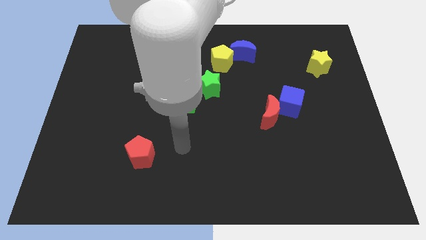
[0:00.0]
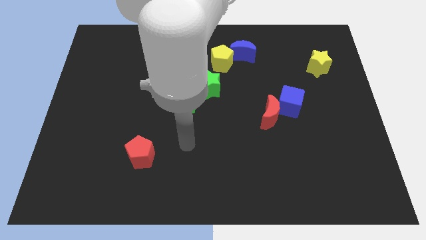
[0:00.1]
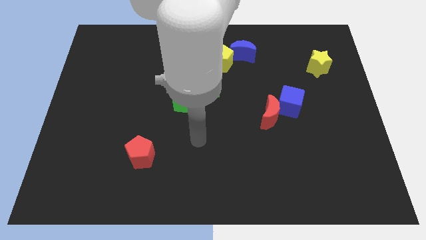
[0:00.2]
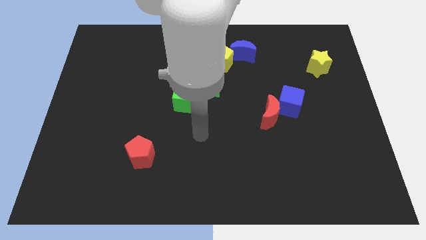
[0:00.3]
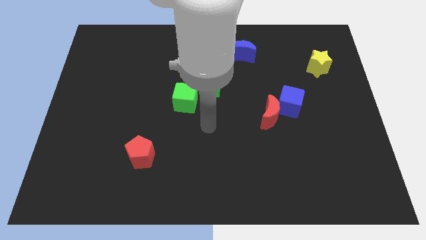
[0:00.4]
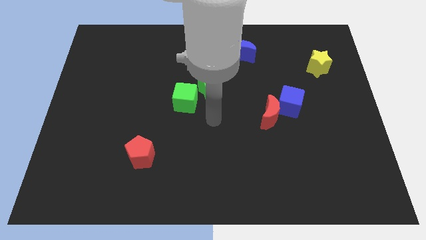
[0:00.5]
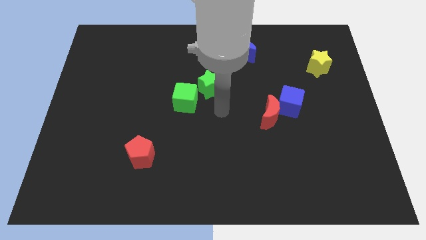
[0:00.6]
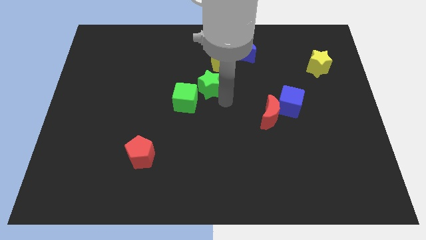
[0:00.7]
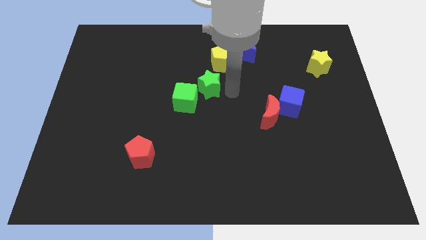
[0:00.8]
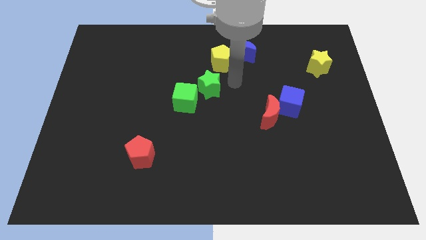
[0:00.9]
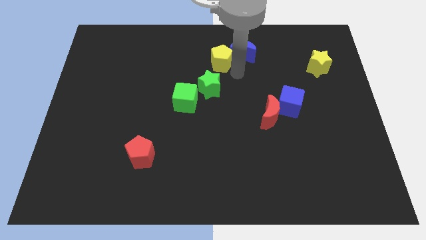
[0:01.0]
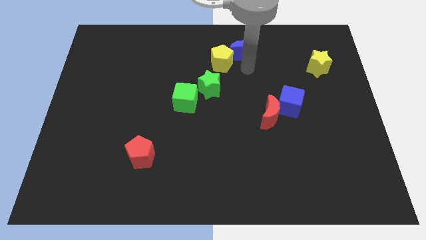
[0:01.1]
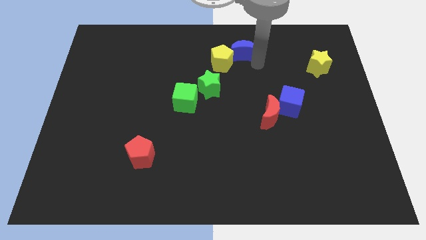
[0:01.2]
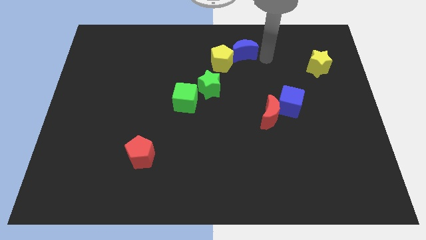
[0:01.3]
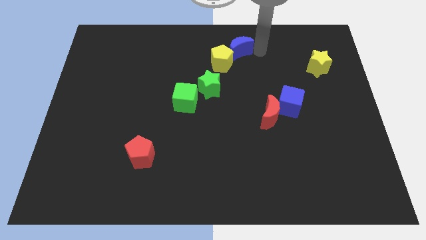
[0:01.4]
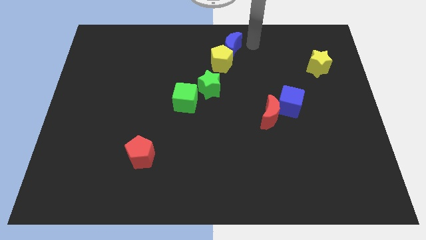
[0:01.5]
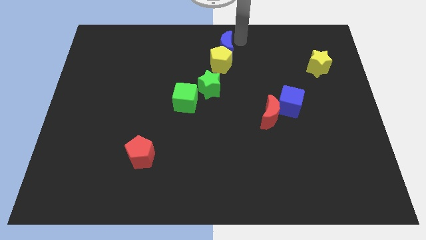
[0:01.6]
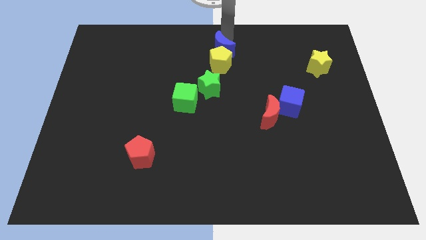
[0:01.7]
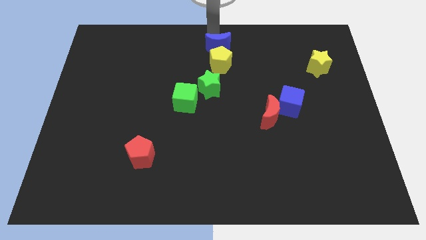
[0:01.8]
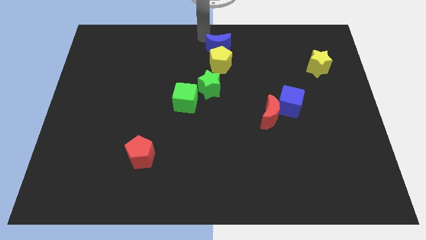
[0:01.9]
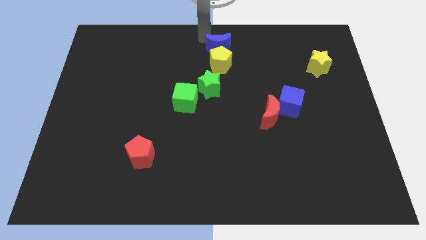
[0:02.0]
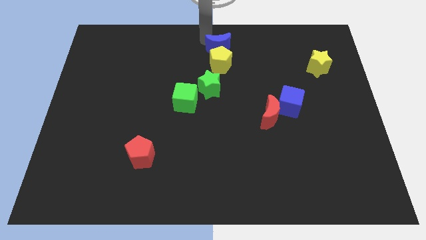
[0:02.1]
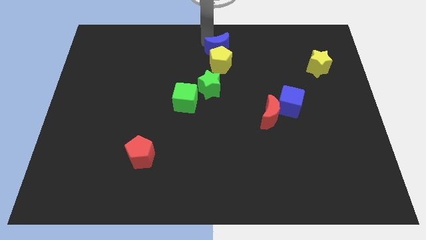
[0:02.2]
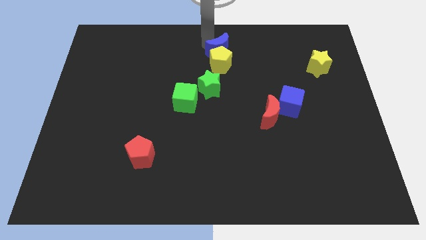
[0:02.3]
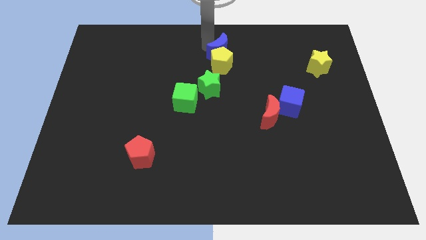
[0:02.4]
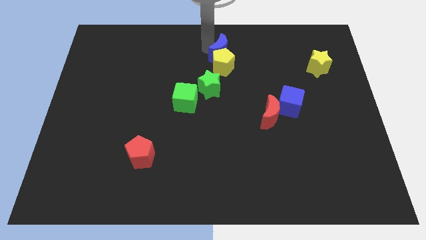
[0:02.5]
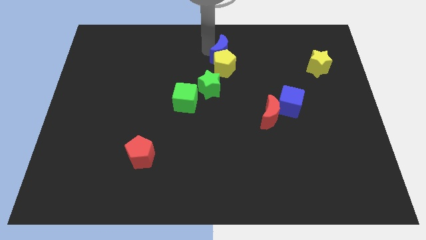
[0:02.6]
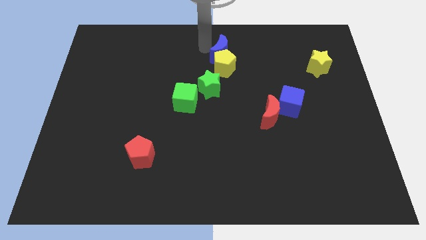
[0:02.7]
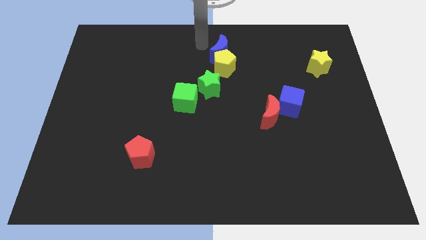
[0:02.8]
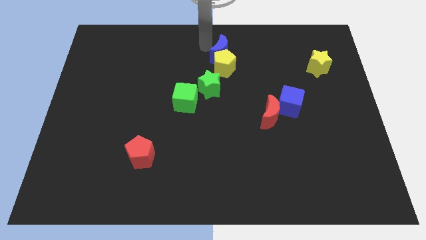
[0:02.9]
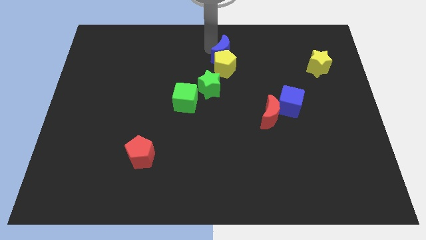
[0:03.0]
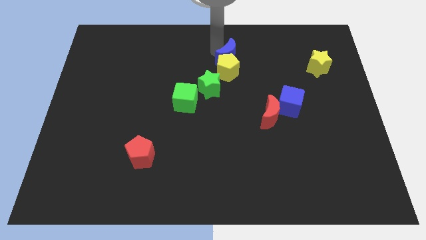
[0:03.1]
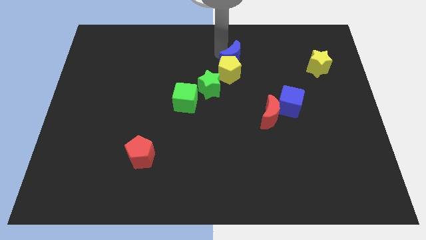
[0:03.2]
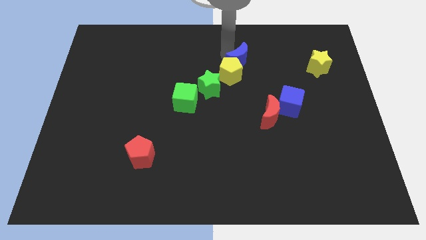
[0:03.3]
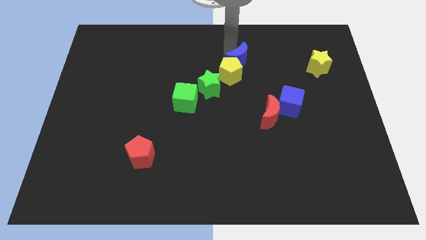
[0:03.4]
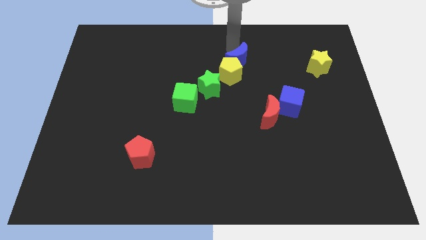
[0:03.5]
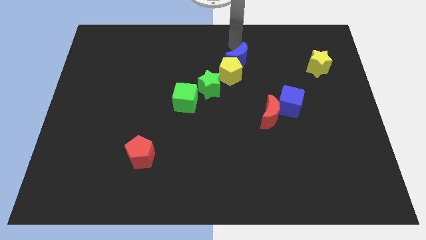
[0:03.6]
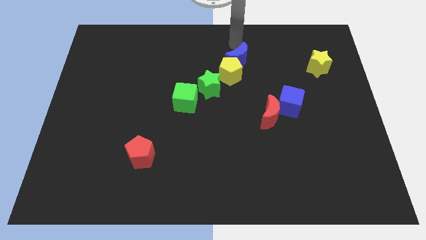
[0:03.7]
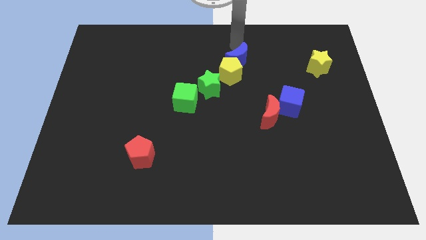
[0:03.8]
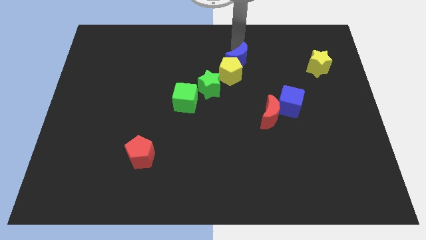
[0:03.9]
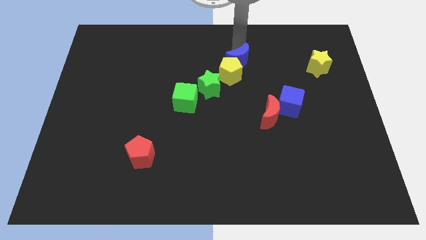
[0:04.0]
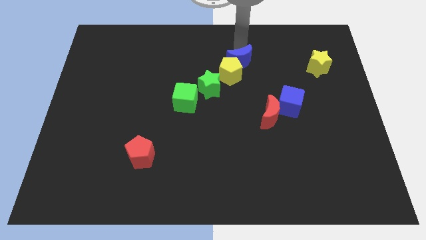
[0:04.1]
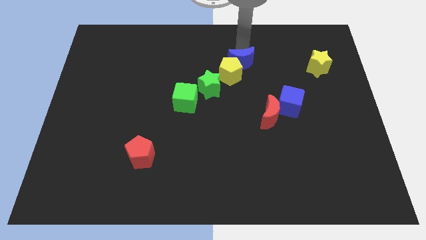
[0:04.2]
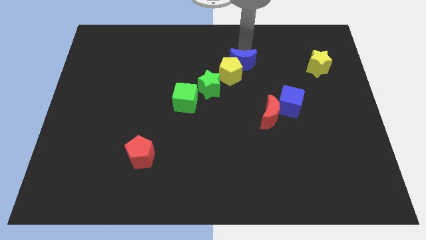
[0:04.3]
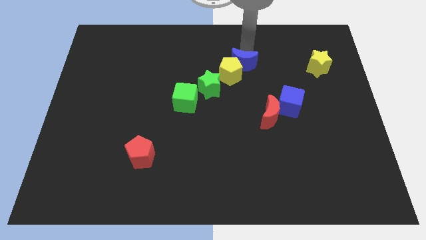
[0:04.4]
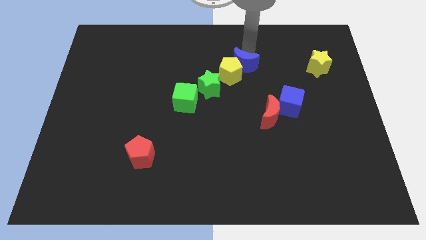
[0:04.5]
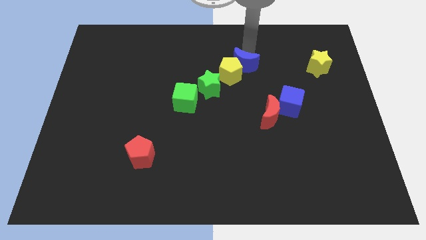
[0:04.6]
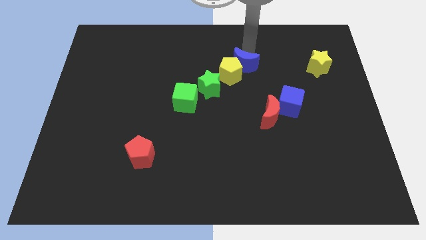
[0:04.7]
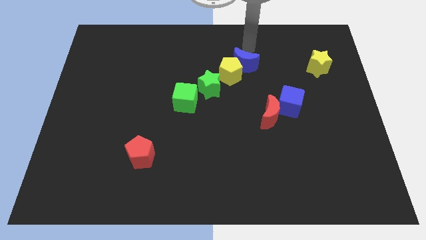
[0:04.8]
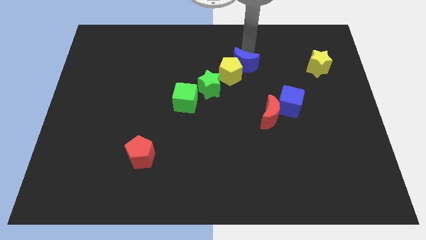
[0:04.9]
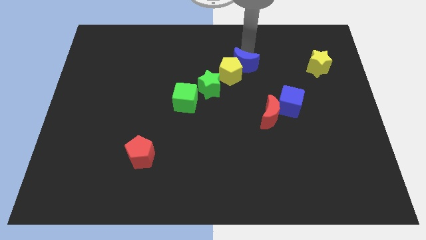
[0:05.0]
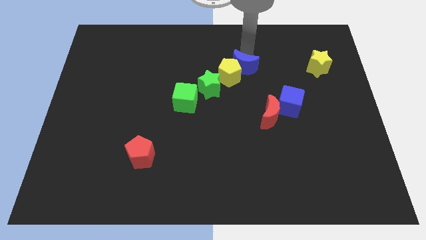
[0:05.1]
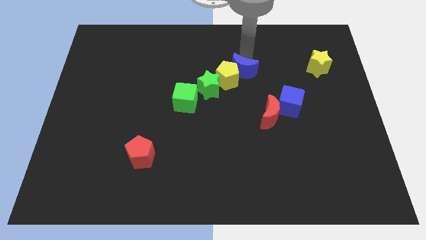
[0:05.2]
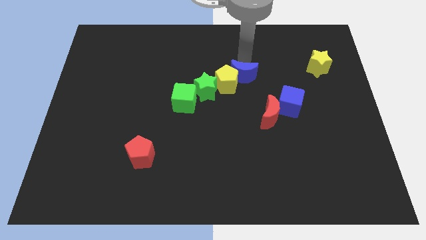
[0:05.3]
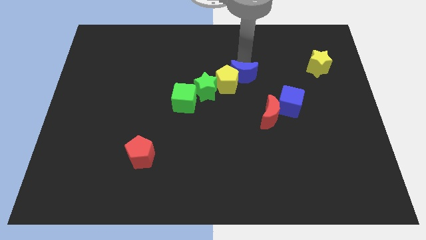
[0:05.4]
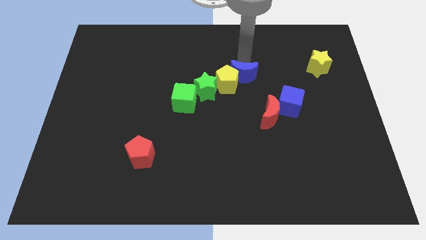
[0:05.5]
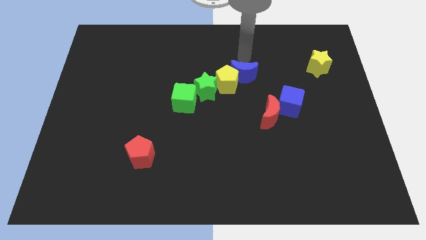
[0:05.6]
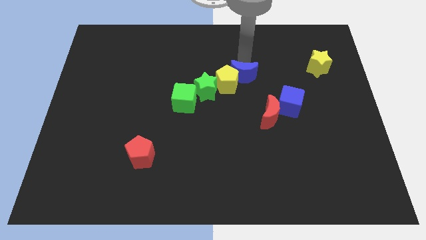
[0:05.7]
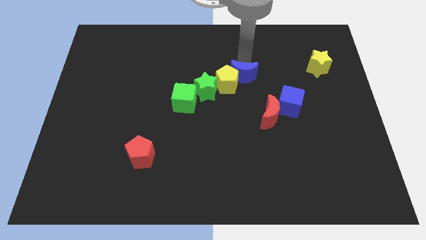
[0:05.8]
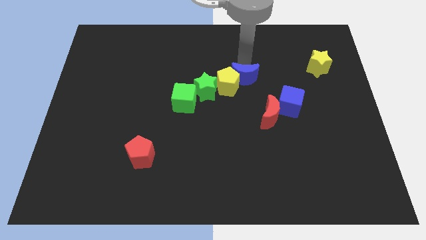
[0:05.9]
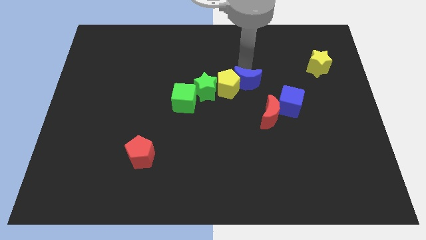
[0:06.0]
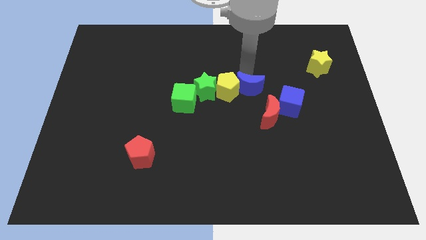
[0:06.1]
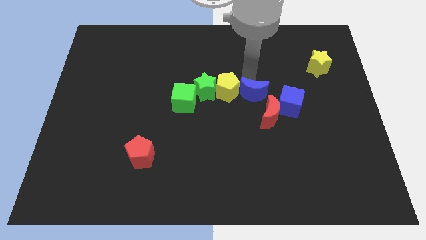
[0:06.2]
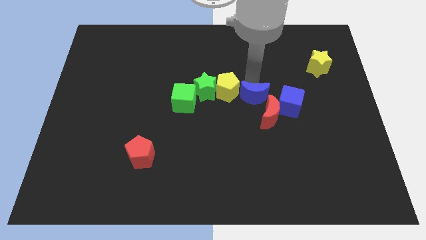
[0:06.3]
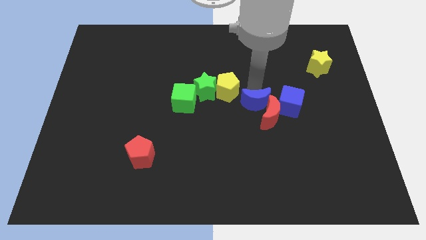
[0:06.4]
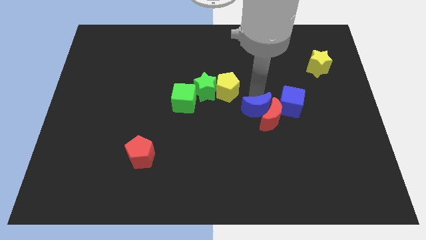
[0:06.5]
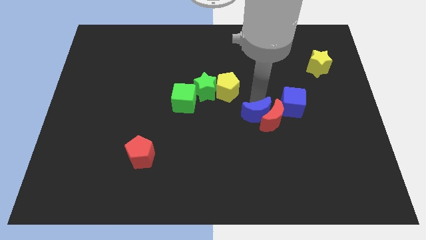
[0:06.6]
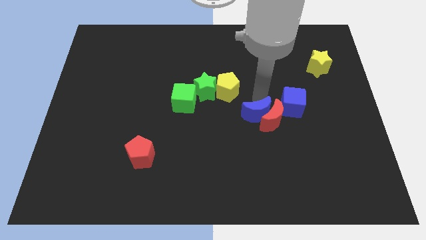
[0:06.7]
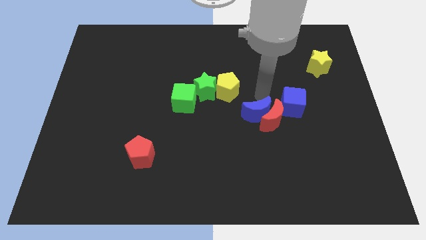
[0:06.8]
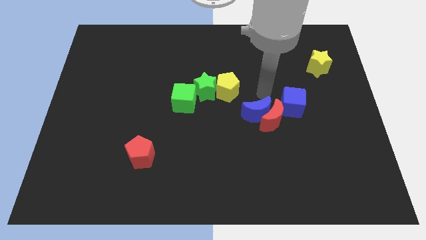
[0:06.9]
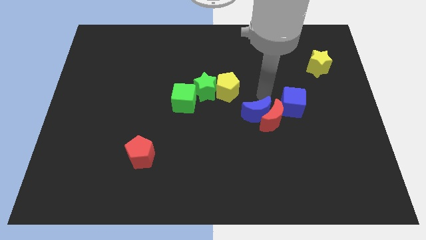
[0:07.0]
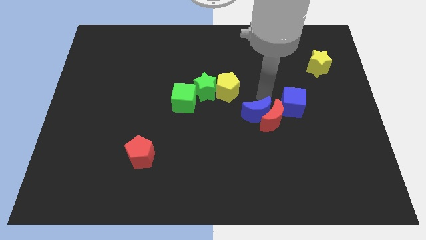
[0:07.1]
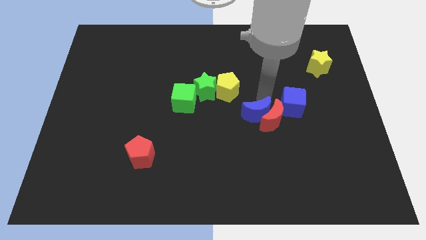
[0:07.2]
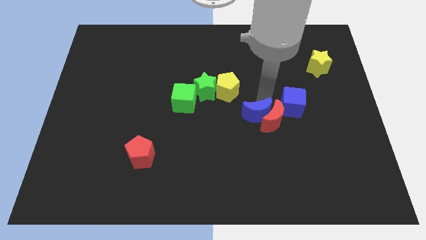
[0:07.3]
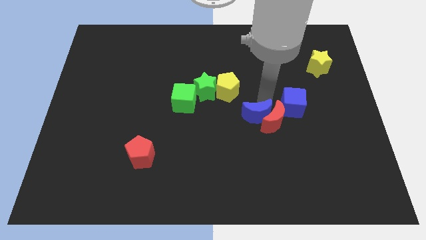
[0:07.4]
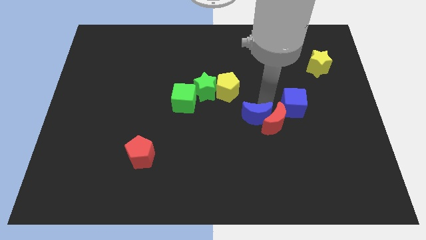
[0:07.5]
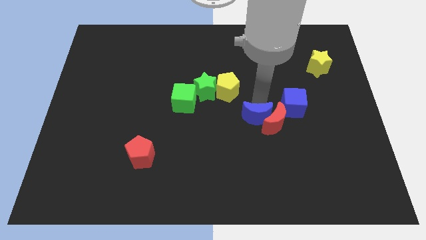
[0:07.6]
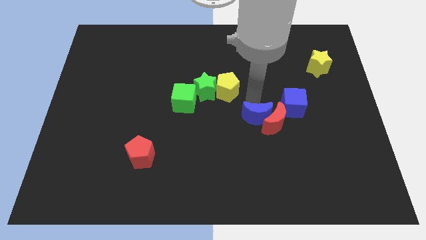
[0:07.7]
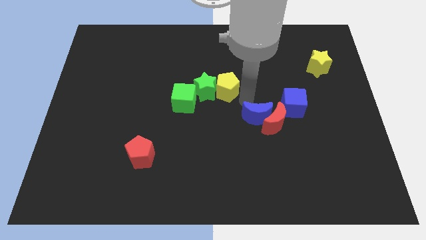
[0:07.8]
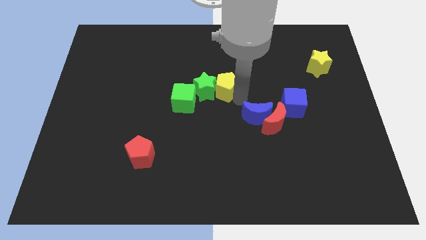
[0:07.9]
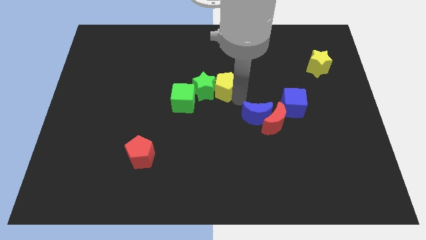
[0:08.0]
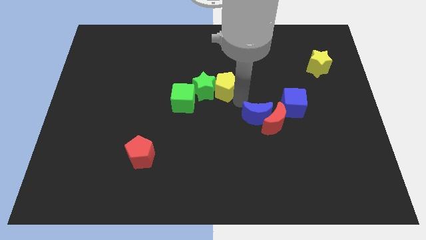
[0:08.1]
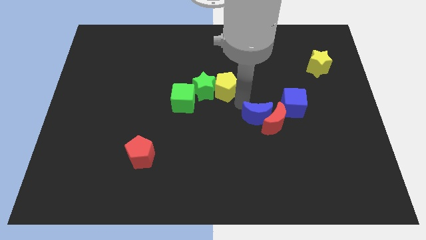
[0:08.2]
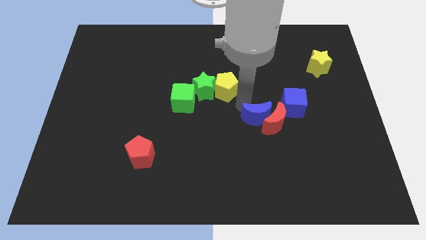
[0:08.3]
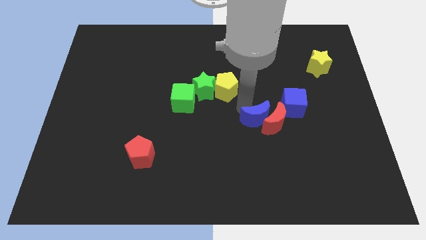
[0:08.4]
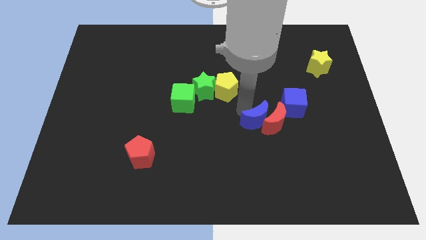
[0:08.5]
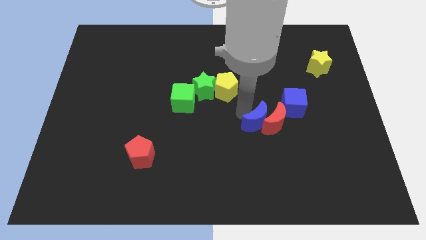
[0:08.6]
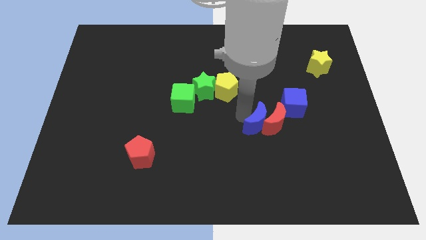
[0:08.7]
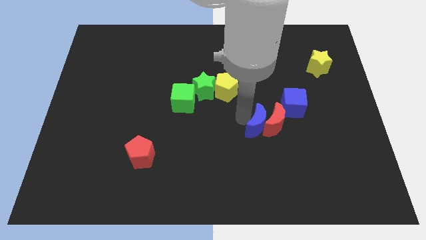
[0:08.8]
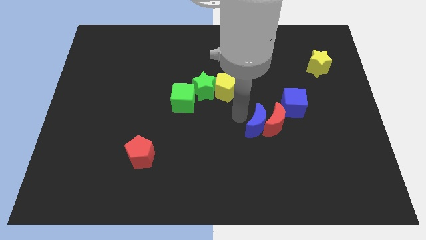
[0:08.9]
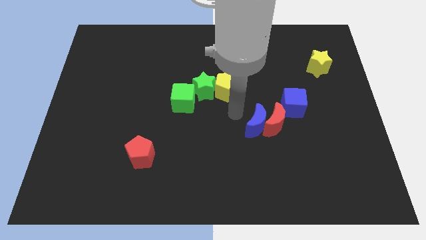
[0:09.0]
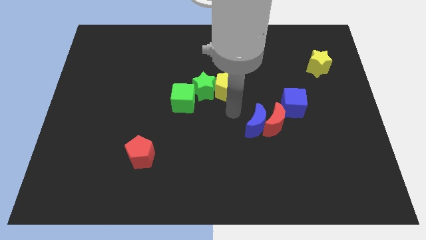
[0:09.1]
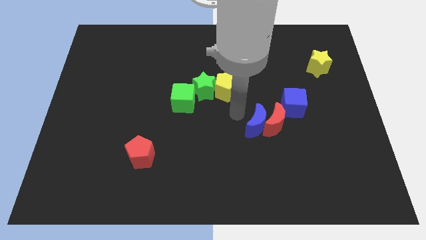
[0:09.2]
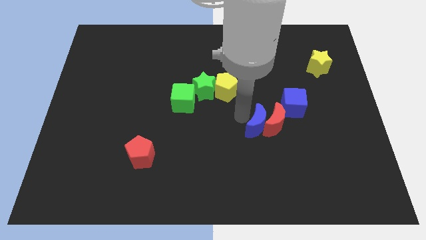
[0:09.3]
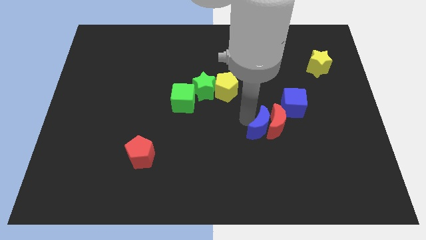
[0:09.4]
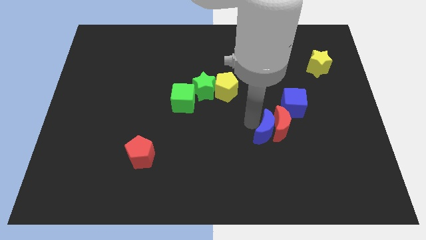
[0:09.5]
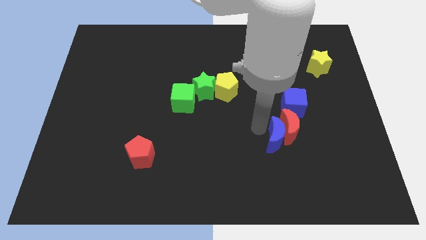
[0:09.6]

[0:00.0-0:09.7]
put the blue moon to the bottom of the blue cube
